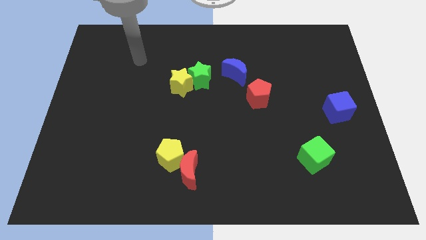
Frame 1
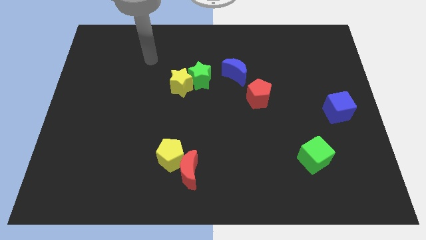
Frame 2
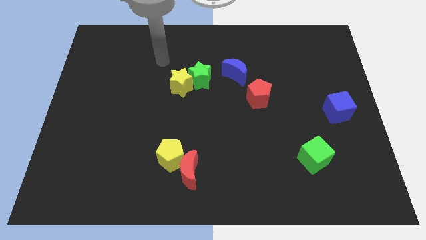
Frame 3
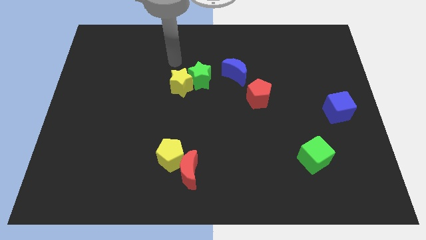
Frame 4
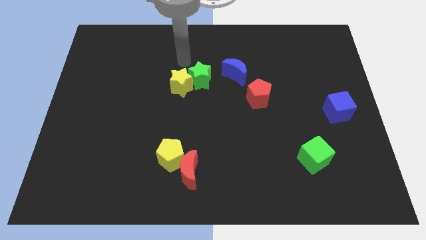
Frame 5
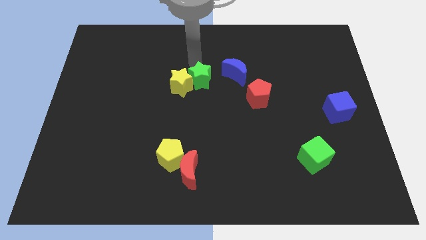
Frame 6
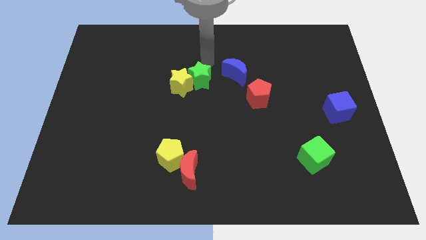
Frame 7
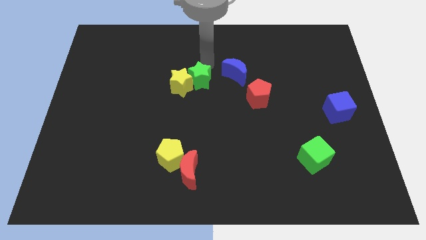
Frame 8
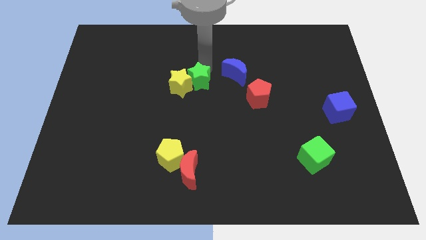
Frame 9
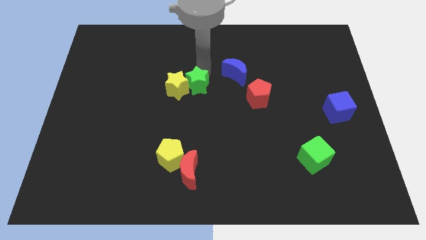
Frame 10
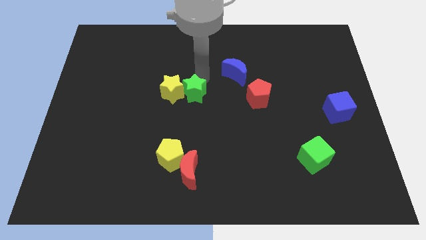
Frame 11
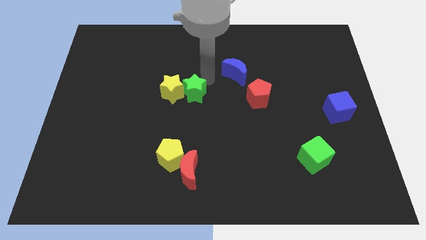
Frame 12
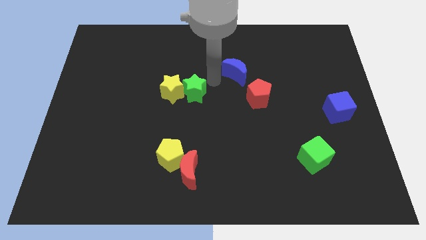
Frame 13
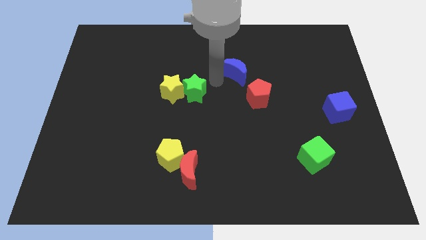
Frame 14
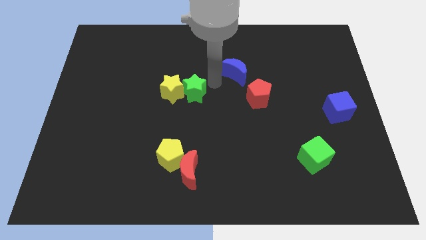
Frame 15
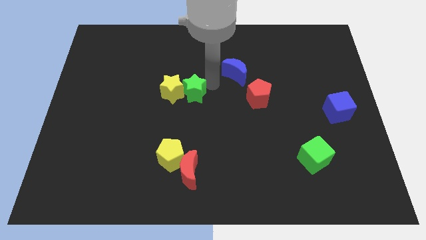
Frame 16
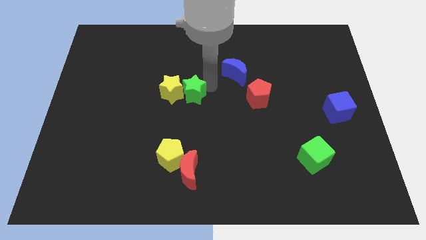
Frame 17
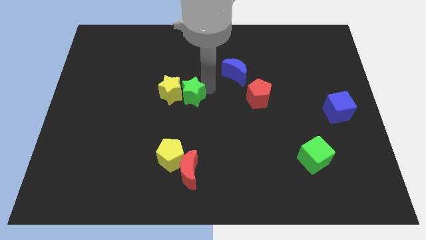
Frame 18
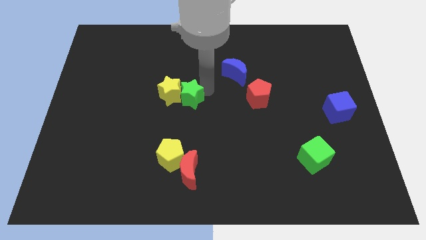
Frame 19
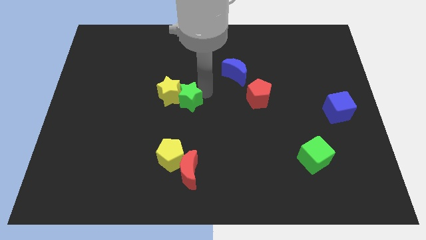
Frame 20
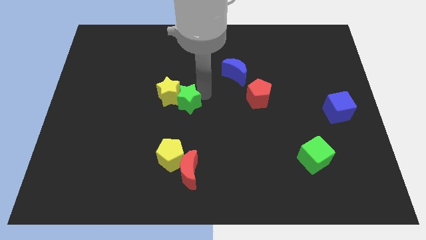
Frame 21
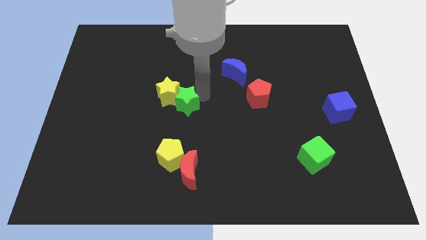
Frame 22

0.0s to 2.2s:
push the green star downwards and then to the left a little

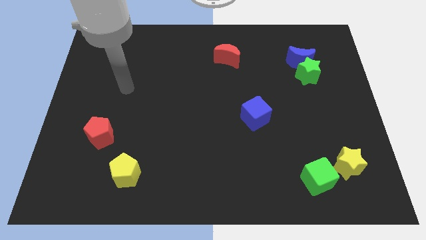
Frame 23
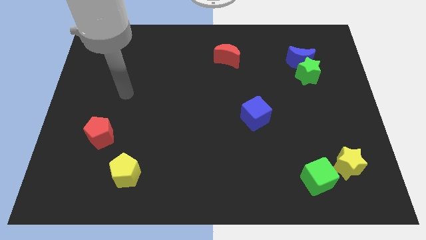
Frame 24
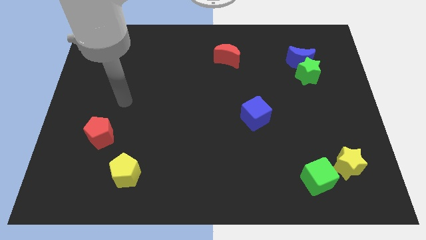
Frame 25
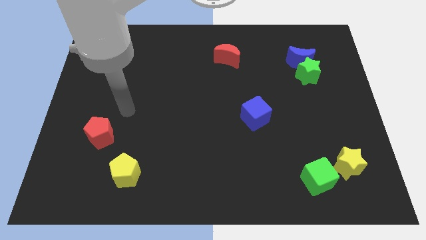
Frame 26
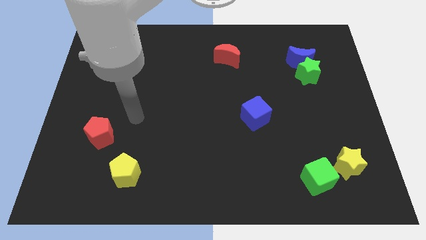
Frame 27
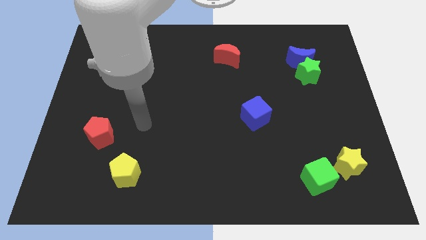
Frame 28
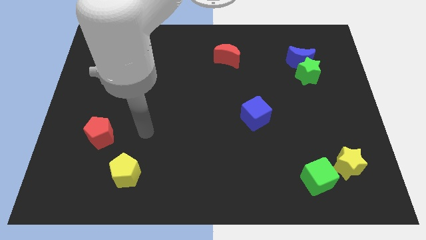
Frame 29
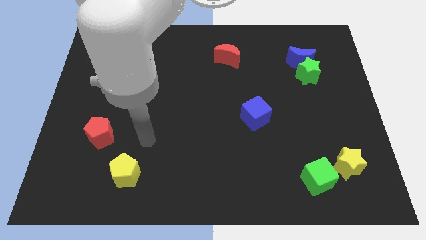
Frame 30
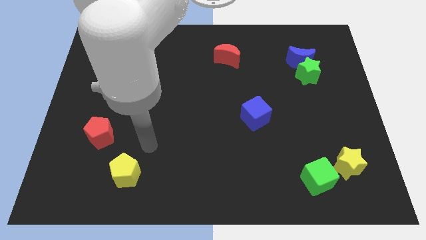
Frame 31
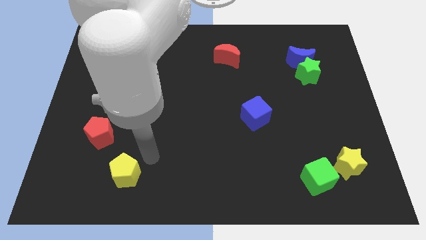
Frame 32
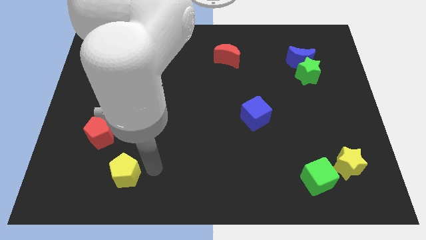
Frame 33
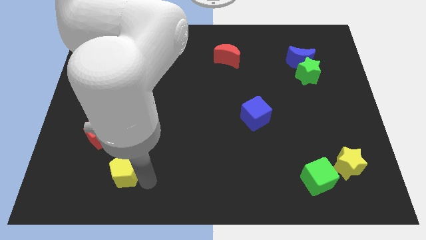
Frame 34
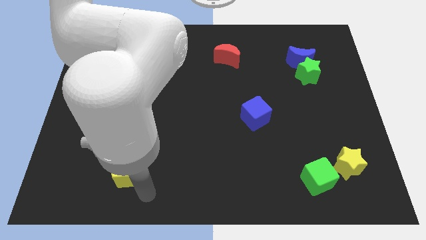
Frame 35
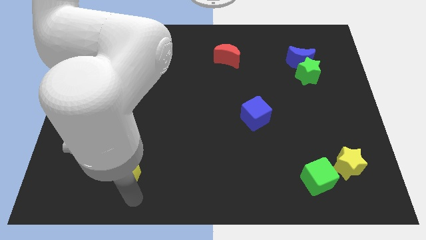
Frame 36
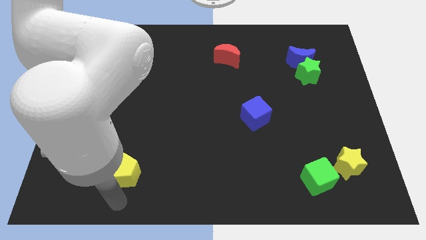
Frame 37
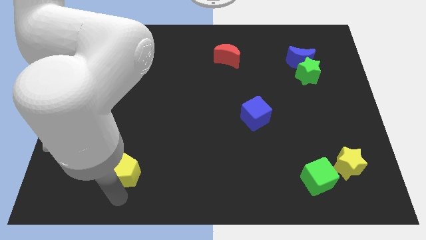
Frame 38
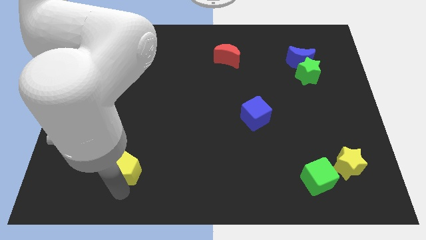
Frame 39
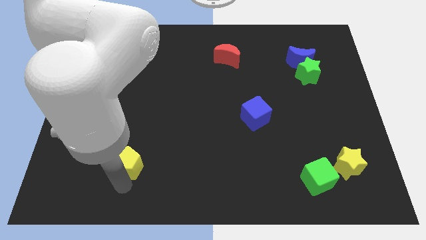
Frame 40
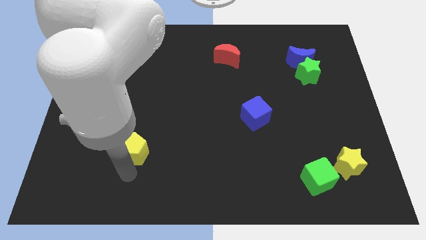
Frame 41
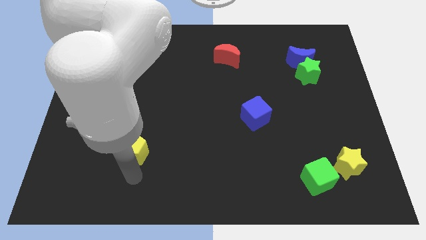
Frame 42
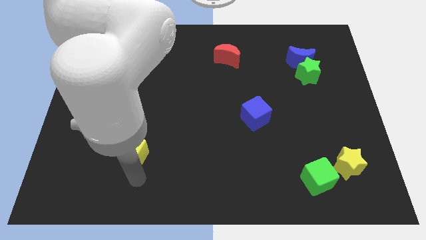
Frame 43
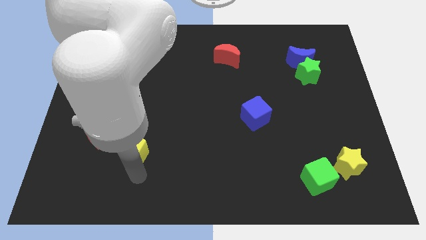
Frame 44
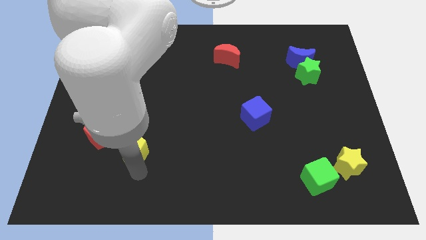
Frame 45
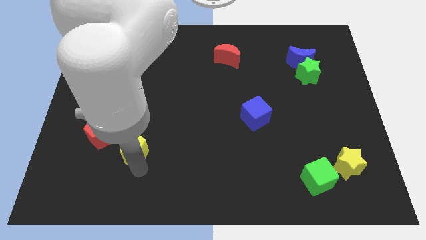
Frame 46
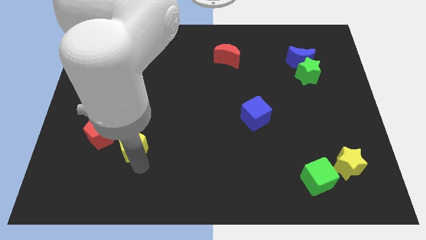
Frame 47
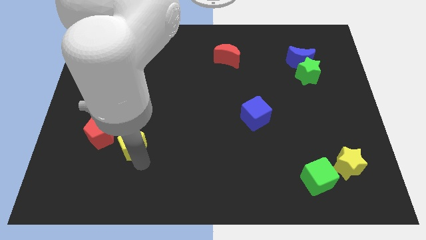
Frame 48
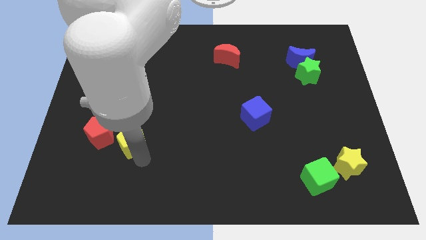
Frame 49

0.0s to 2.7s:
slide the yellow pentagon up somewhat

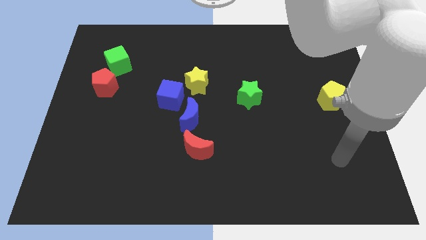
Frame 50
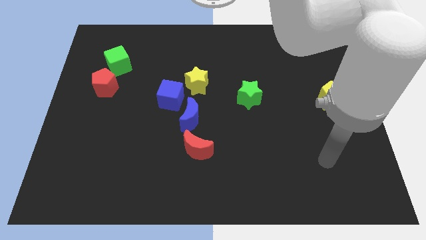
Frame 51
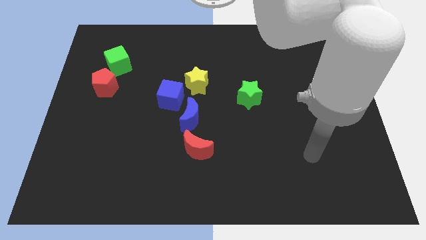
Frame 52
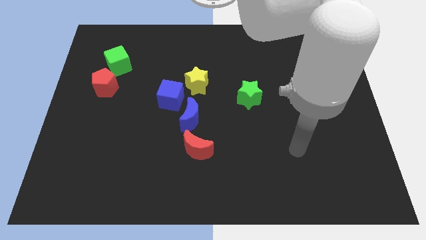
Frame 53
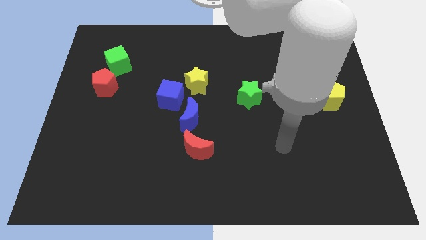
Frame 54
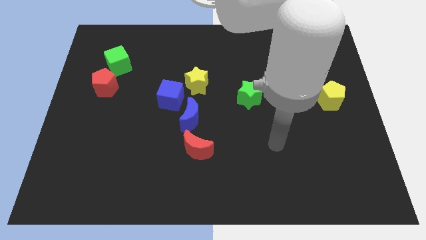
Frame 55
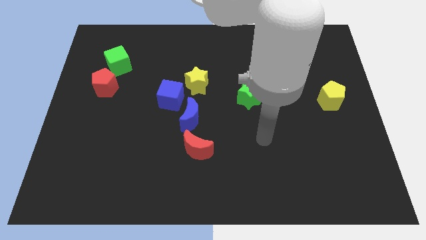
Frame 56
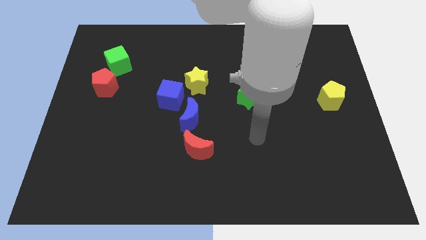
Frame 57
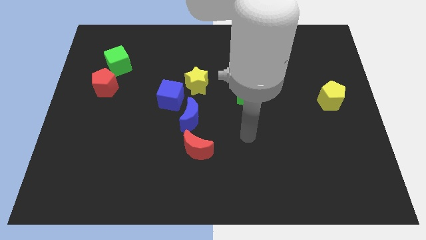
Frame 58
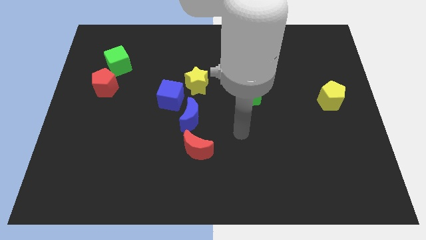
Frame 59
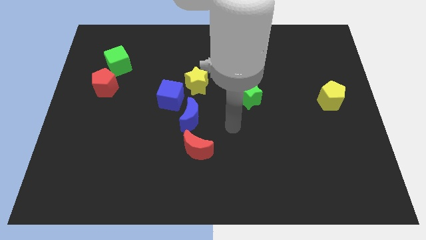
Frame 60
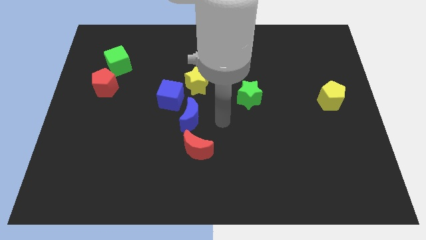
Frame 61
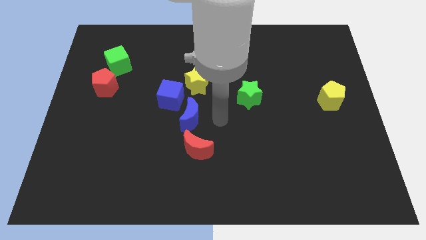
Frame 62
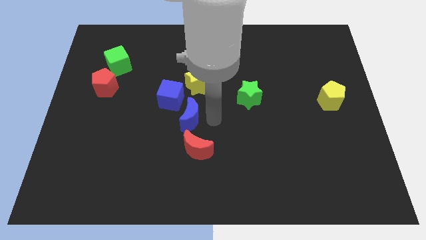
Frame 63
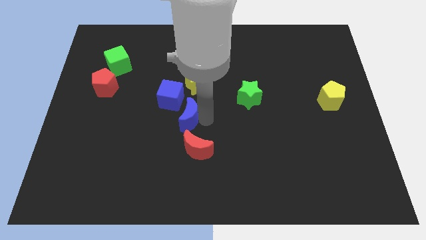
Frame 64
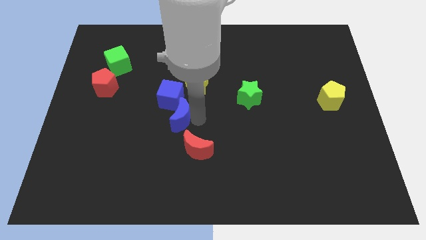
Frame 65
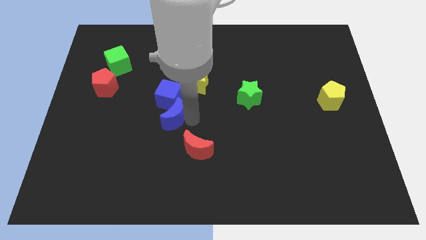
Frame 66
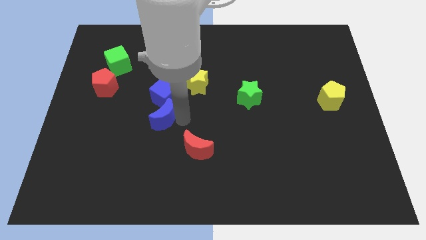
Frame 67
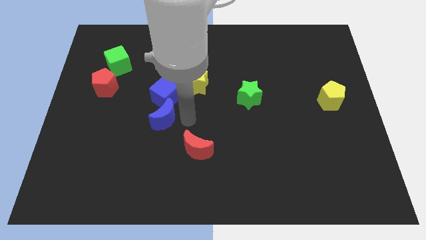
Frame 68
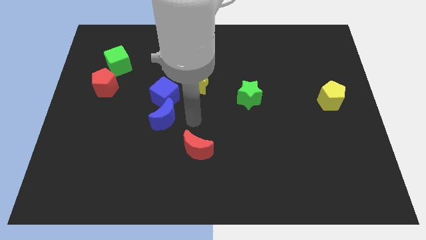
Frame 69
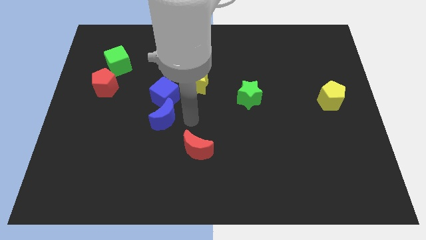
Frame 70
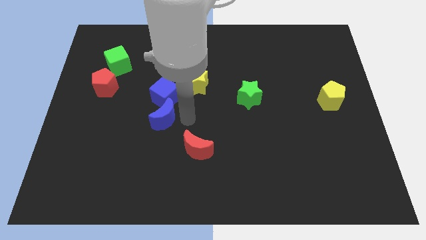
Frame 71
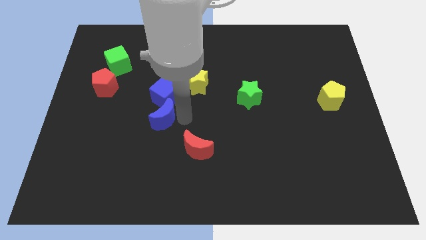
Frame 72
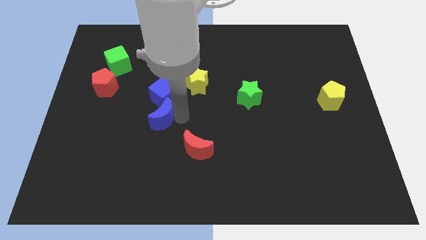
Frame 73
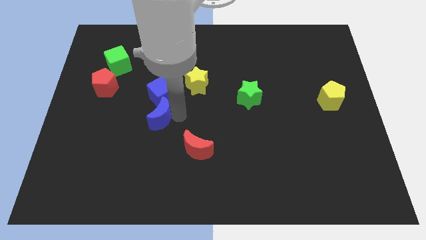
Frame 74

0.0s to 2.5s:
slightly push the blue moon to the left

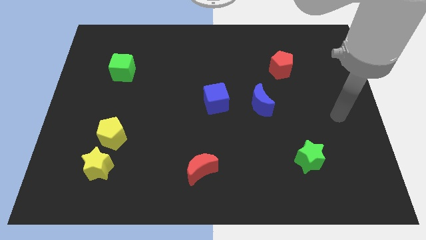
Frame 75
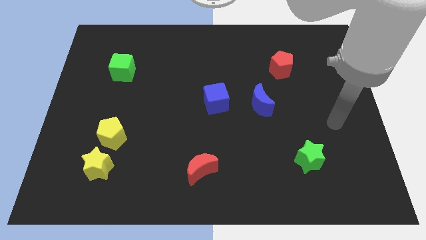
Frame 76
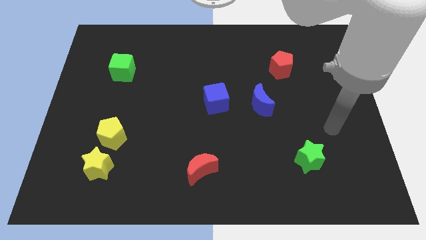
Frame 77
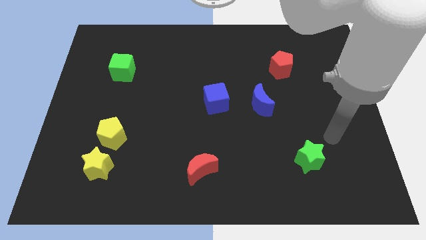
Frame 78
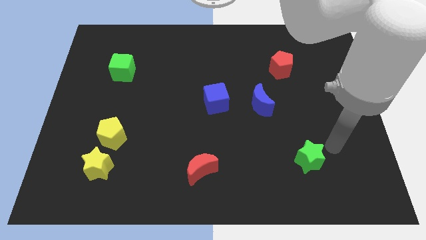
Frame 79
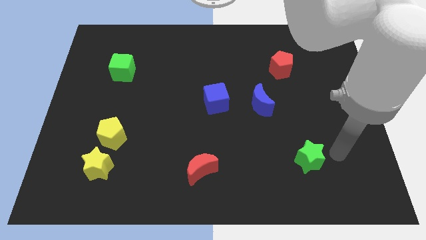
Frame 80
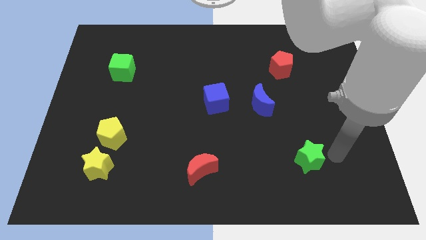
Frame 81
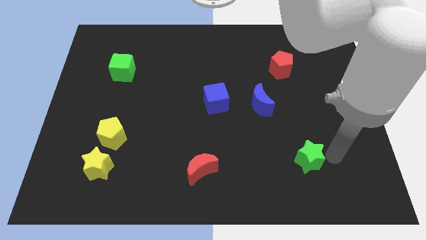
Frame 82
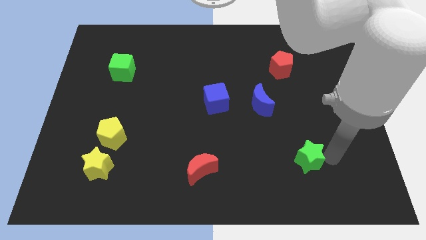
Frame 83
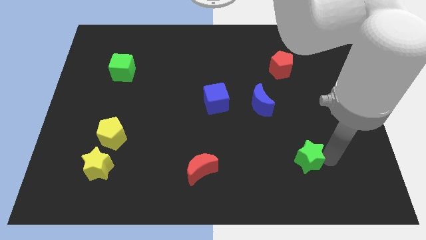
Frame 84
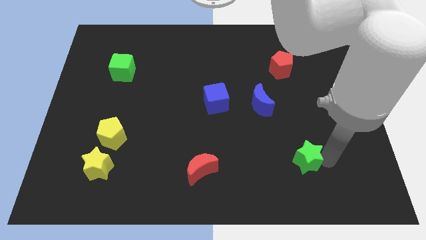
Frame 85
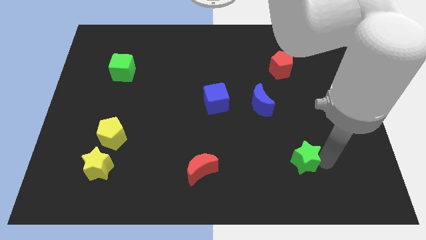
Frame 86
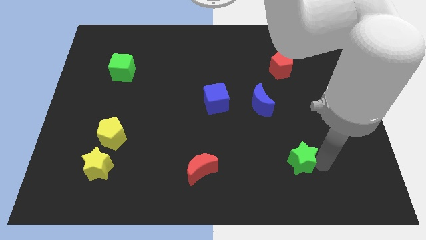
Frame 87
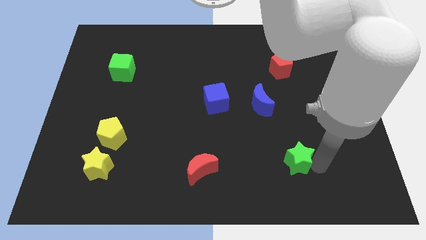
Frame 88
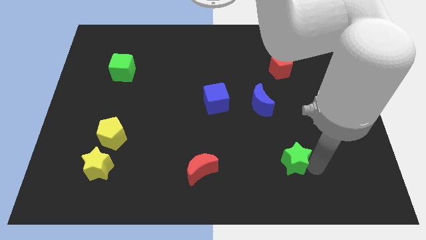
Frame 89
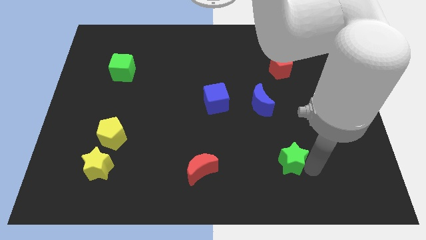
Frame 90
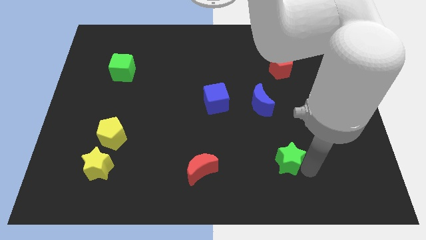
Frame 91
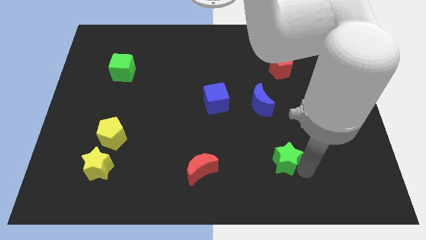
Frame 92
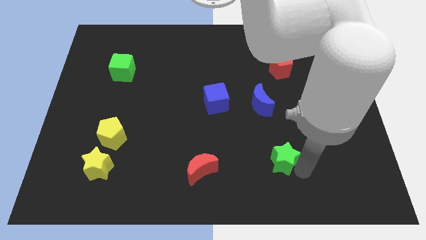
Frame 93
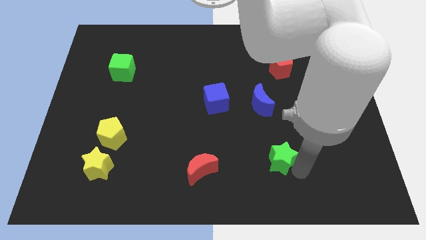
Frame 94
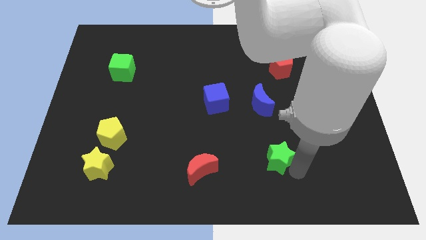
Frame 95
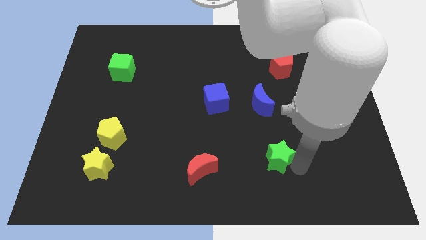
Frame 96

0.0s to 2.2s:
slightly push the green star left
